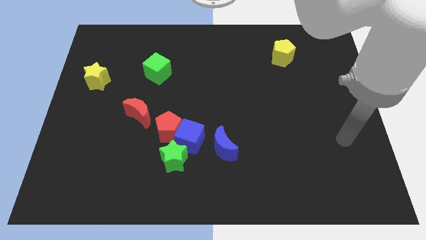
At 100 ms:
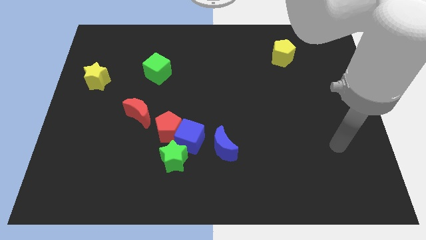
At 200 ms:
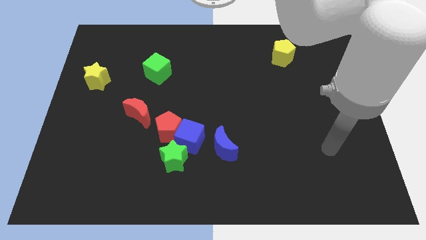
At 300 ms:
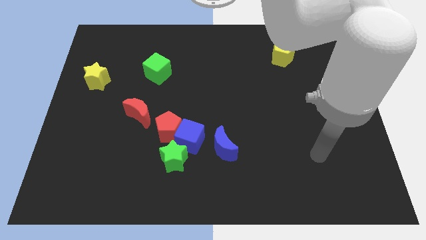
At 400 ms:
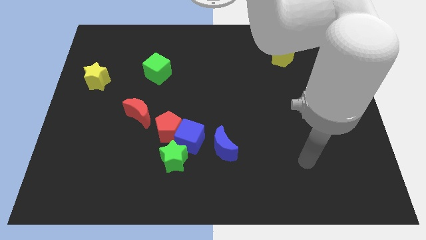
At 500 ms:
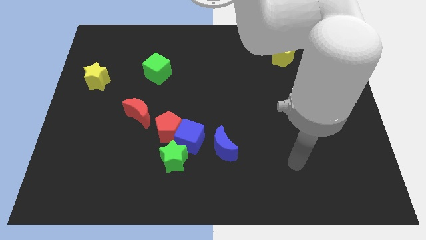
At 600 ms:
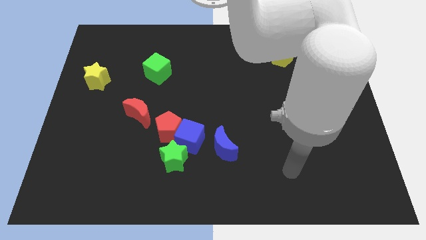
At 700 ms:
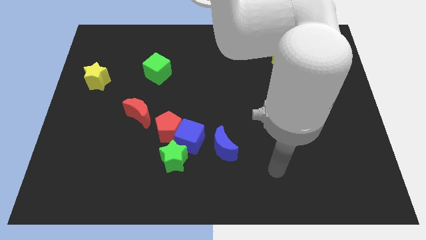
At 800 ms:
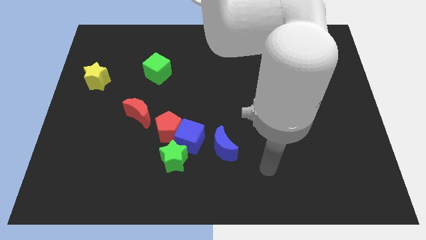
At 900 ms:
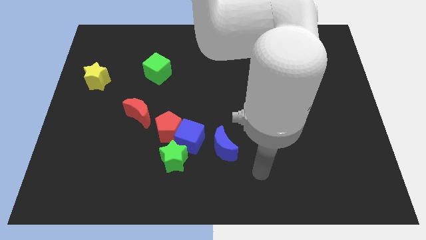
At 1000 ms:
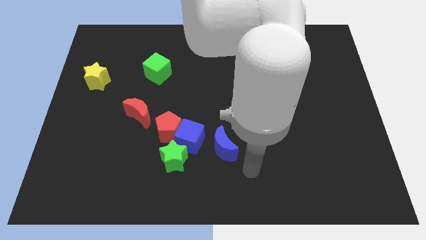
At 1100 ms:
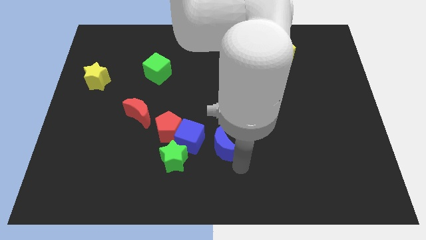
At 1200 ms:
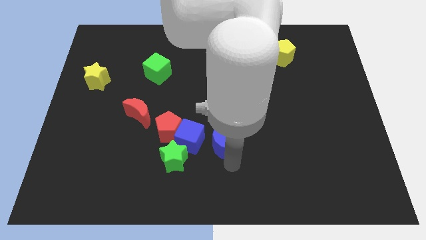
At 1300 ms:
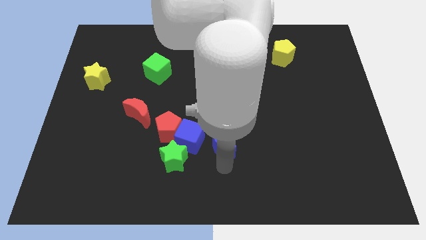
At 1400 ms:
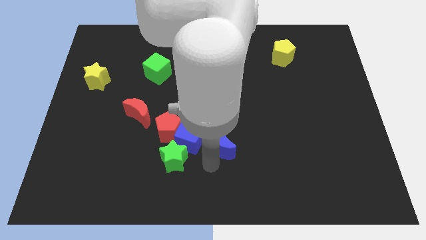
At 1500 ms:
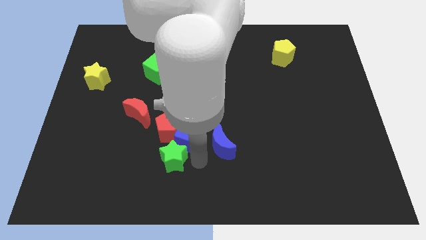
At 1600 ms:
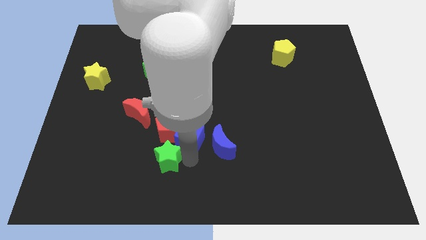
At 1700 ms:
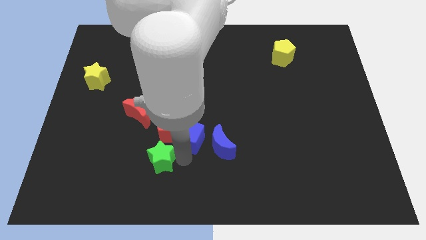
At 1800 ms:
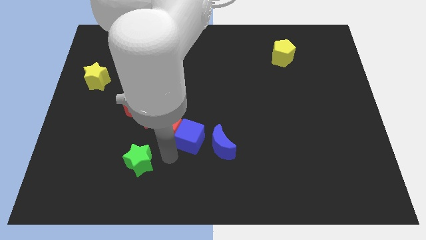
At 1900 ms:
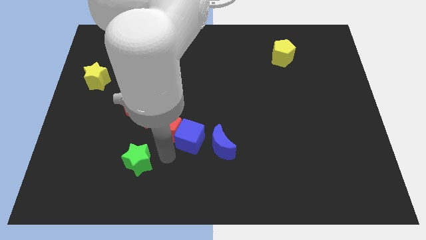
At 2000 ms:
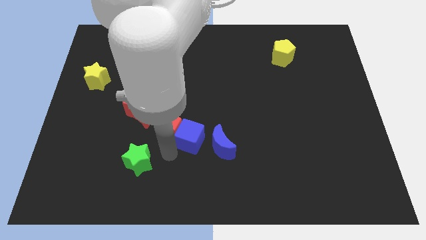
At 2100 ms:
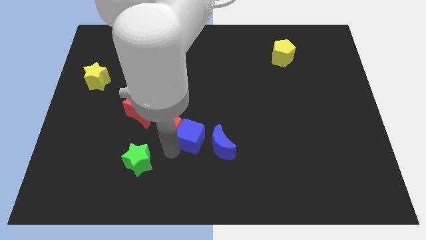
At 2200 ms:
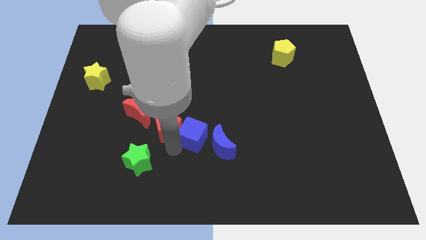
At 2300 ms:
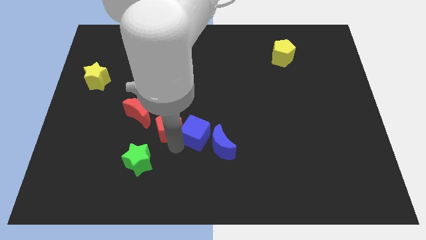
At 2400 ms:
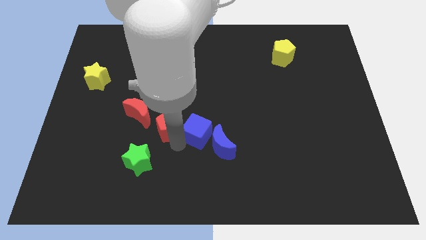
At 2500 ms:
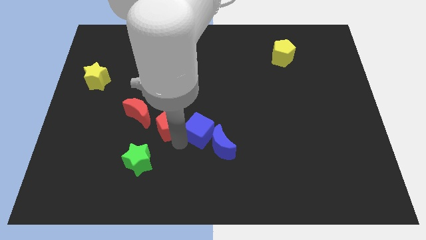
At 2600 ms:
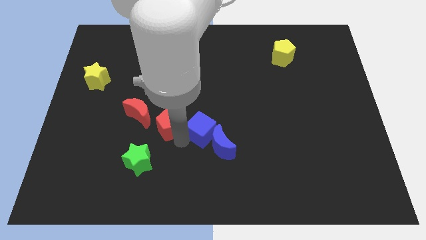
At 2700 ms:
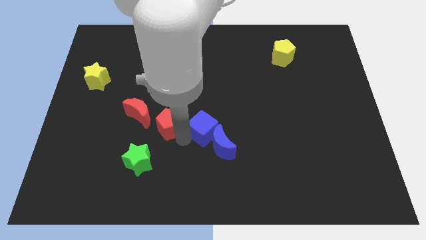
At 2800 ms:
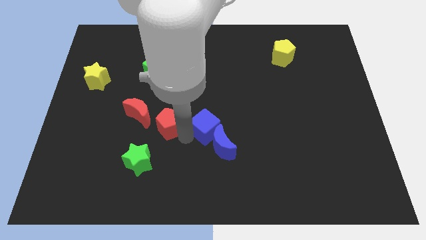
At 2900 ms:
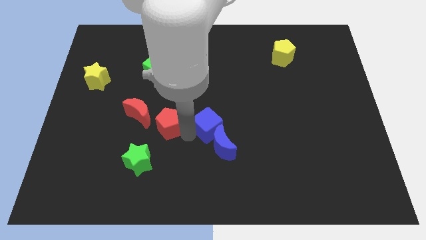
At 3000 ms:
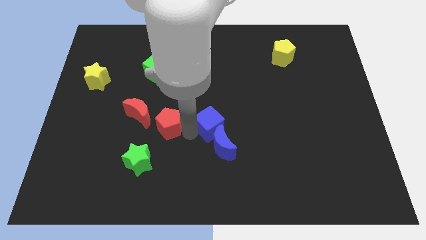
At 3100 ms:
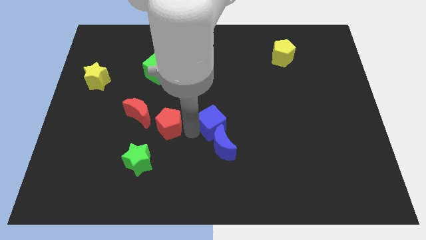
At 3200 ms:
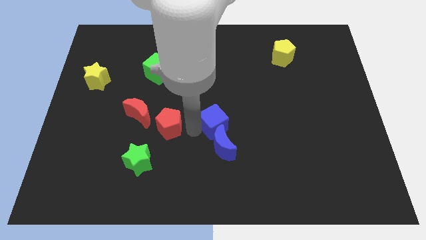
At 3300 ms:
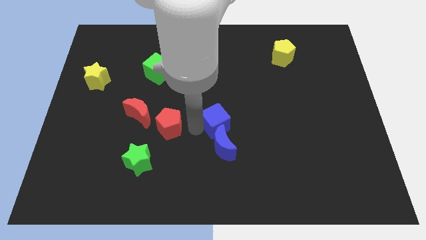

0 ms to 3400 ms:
pull the blue cube apart from the group

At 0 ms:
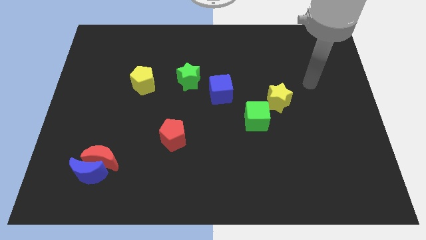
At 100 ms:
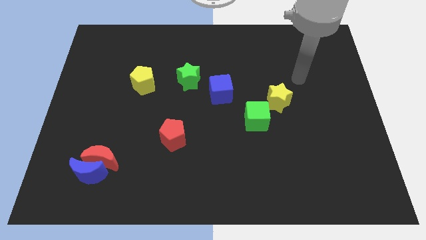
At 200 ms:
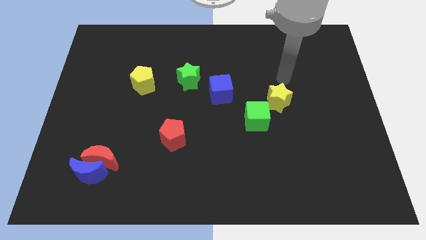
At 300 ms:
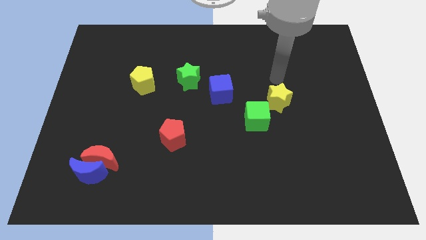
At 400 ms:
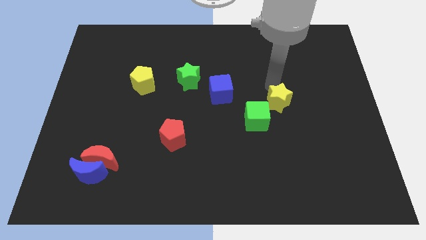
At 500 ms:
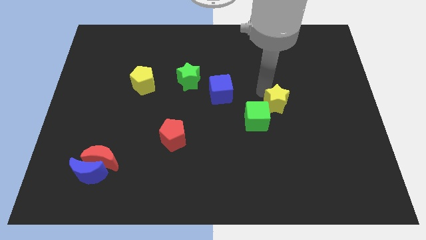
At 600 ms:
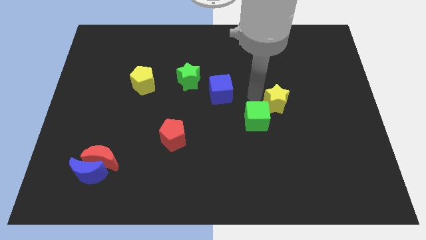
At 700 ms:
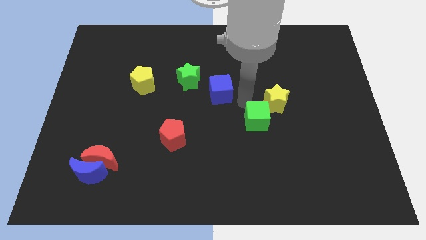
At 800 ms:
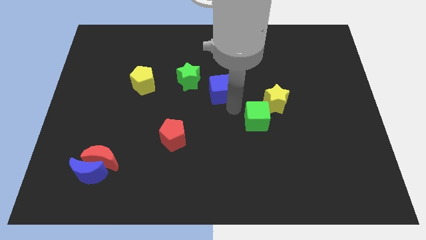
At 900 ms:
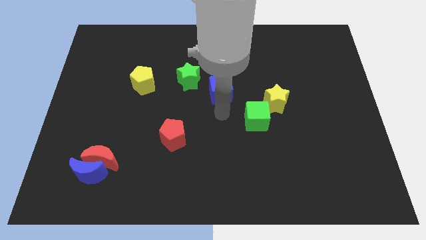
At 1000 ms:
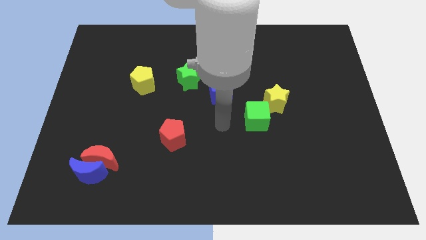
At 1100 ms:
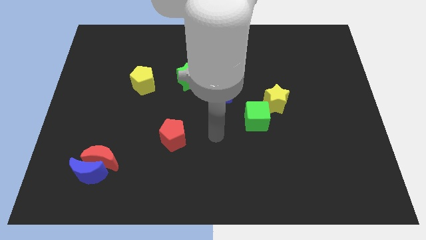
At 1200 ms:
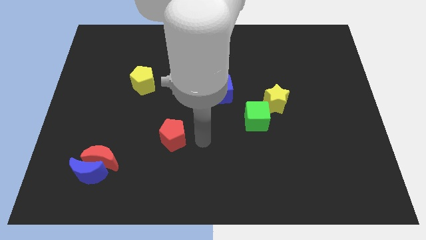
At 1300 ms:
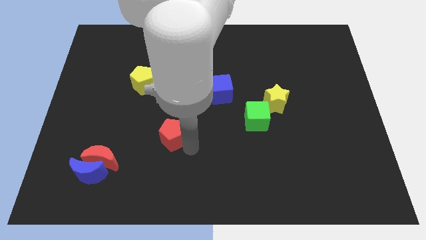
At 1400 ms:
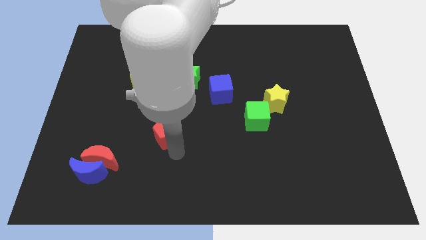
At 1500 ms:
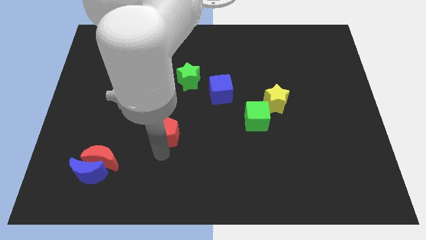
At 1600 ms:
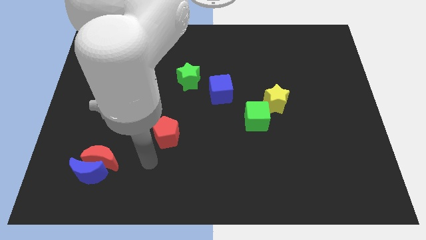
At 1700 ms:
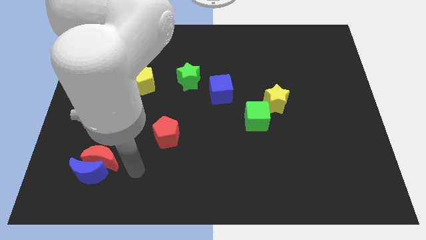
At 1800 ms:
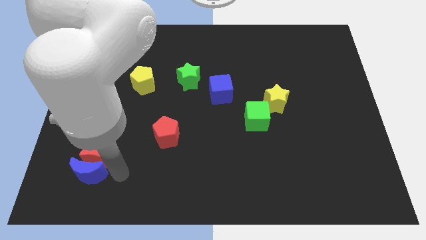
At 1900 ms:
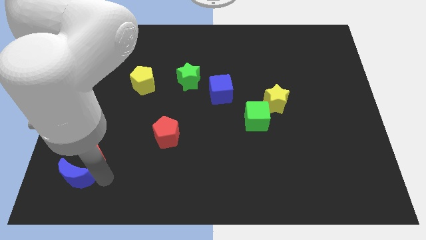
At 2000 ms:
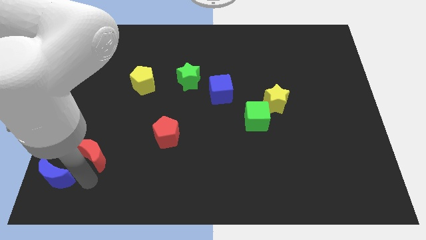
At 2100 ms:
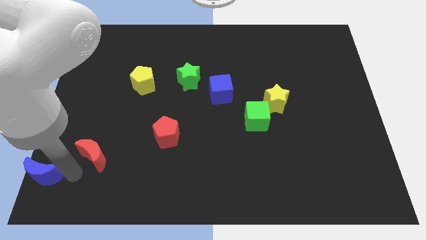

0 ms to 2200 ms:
move the red moon away from the blue moon

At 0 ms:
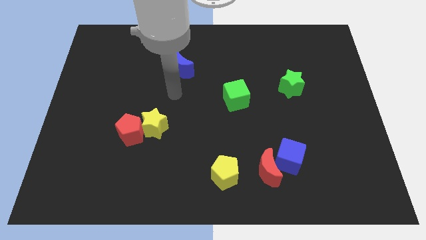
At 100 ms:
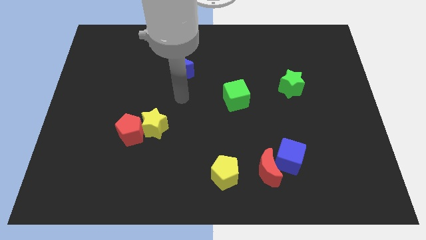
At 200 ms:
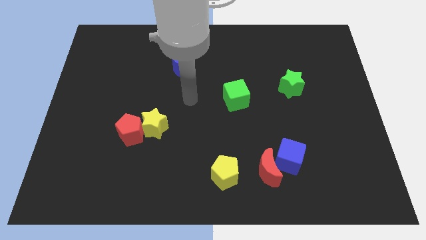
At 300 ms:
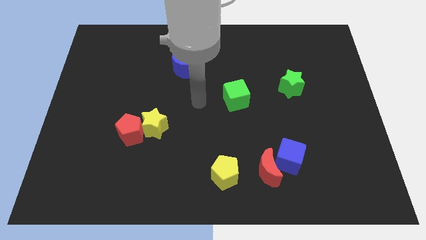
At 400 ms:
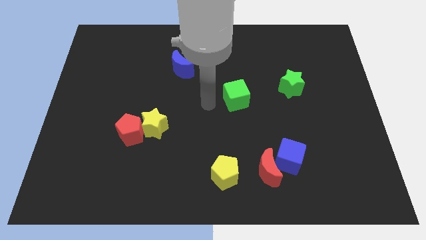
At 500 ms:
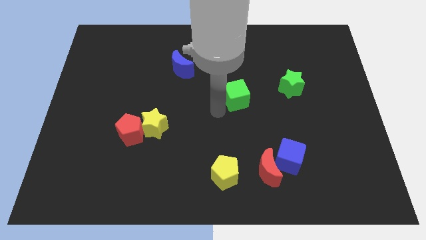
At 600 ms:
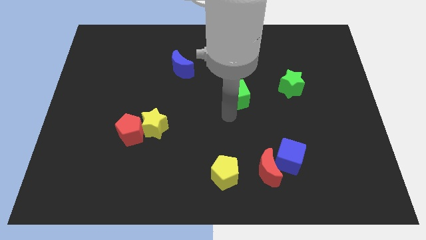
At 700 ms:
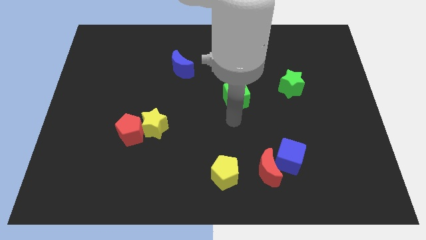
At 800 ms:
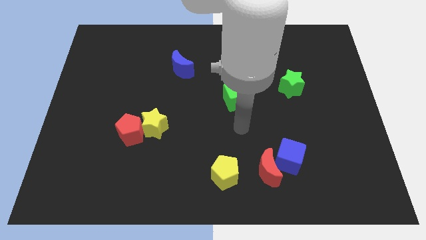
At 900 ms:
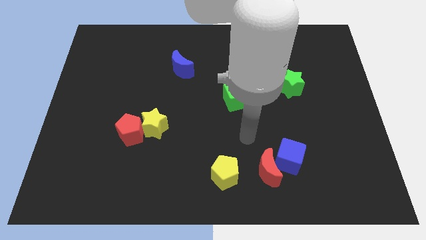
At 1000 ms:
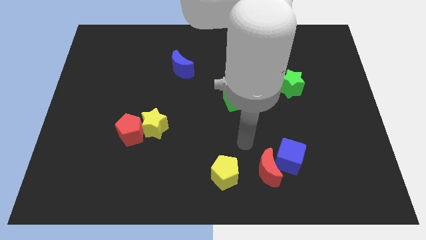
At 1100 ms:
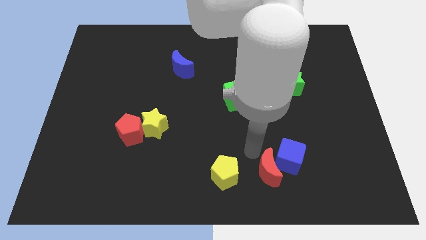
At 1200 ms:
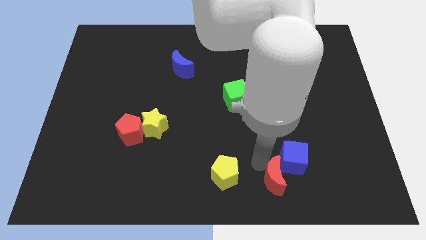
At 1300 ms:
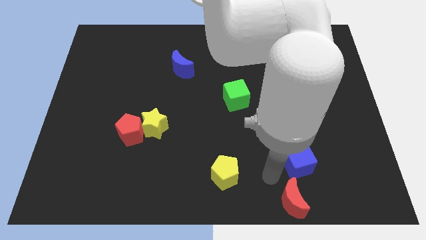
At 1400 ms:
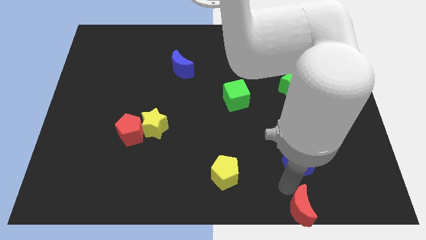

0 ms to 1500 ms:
separate the blue cube from the red moon

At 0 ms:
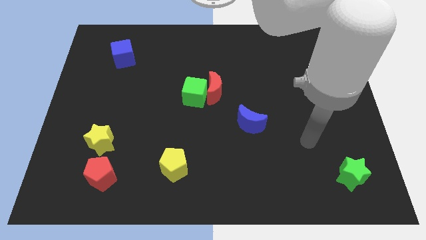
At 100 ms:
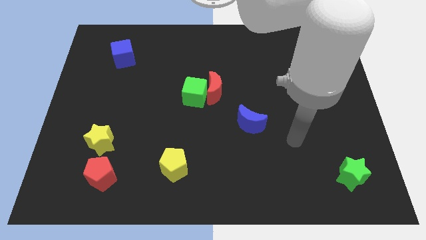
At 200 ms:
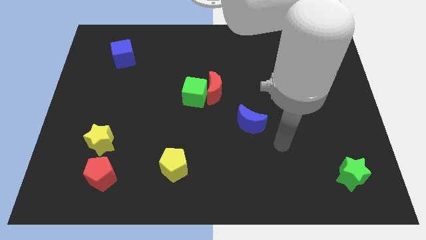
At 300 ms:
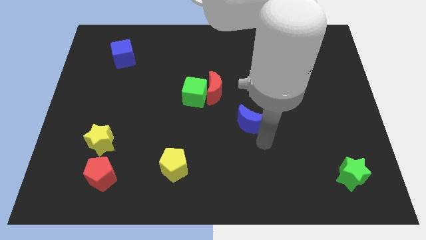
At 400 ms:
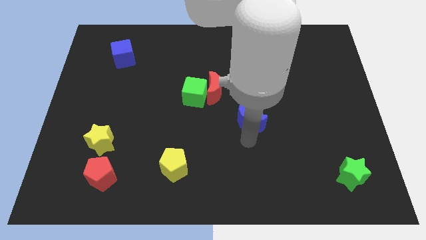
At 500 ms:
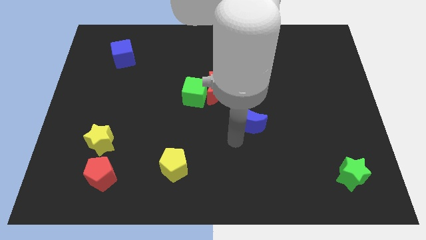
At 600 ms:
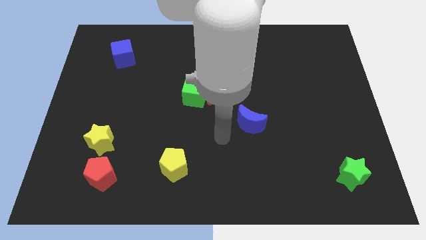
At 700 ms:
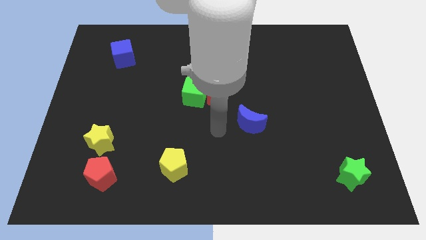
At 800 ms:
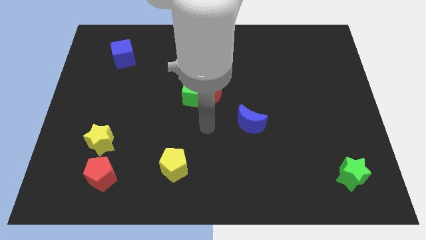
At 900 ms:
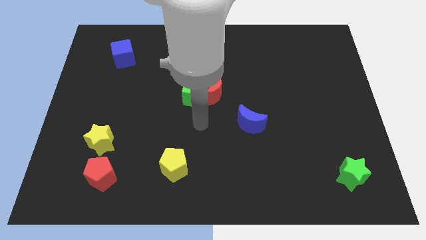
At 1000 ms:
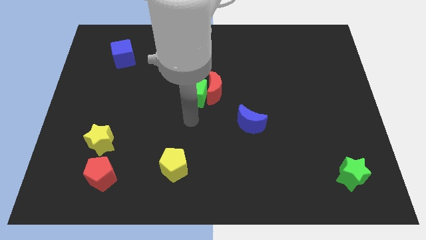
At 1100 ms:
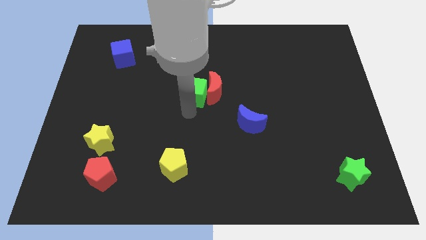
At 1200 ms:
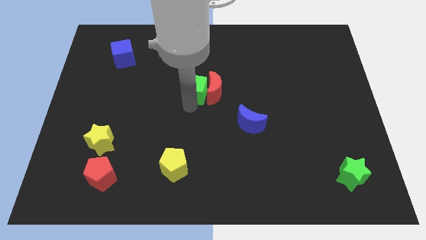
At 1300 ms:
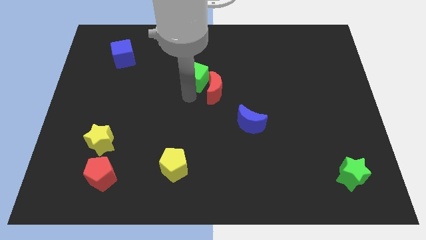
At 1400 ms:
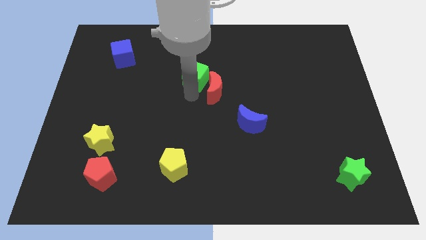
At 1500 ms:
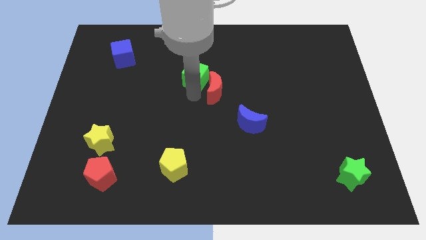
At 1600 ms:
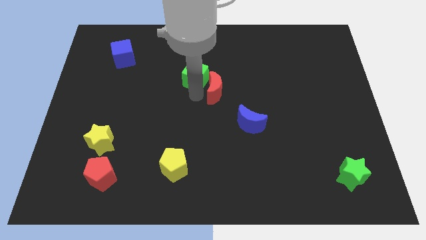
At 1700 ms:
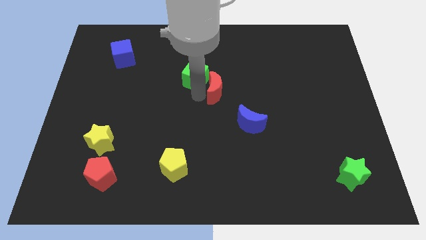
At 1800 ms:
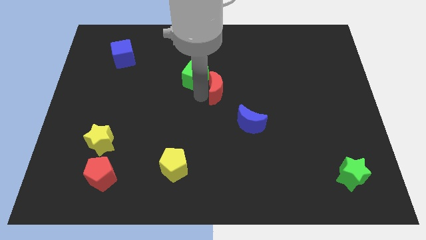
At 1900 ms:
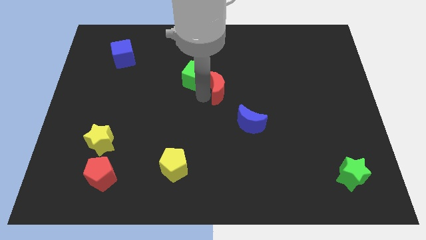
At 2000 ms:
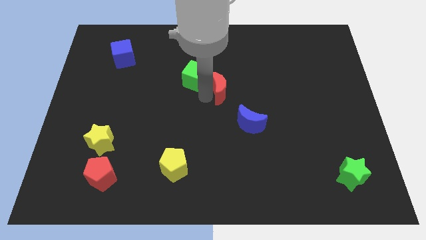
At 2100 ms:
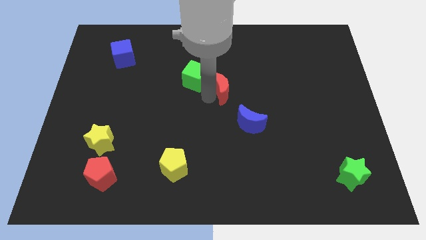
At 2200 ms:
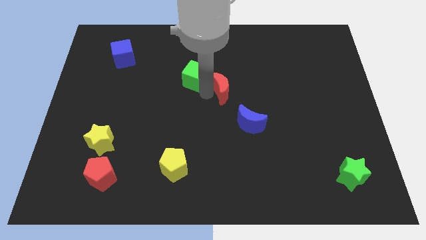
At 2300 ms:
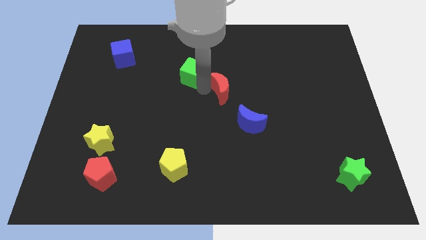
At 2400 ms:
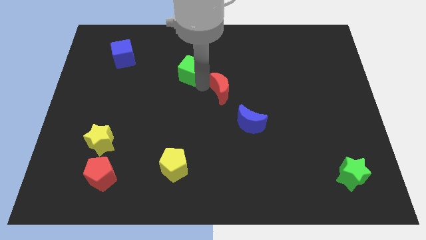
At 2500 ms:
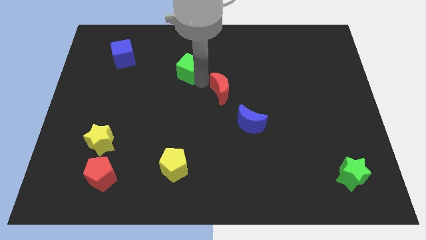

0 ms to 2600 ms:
move the red moon away from the green cube
